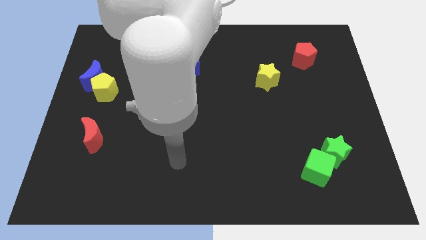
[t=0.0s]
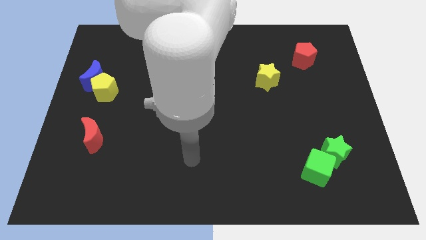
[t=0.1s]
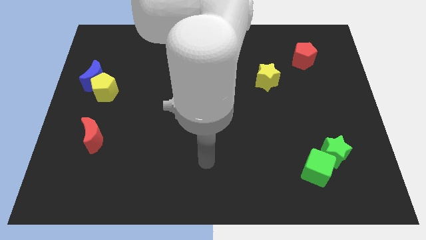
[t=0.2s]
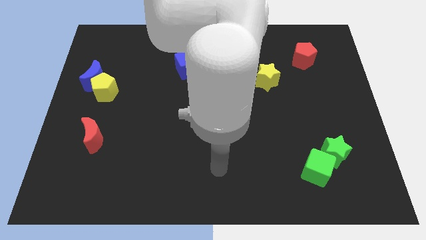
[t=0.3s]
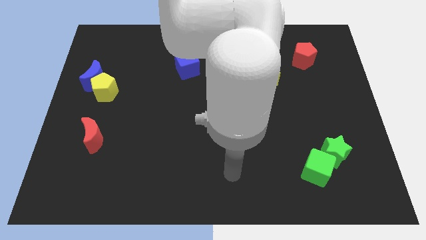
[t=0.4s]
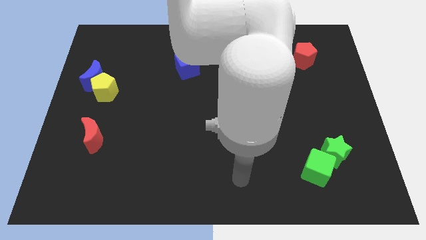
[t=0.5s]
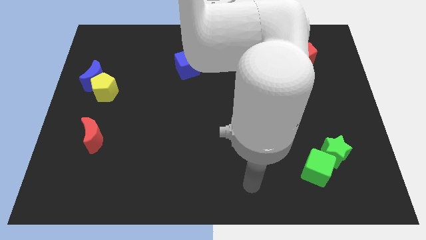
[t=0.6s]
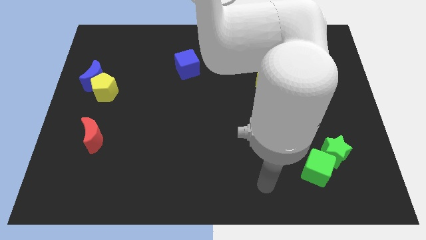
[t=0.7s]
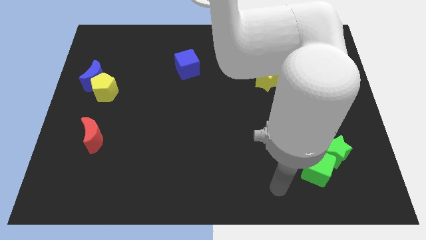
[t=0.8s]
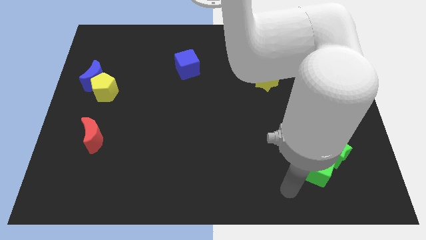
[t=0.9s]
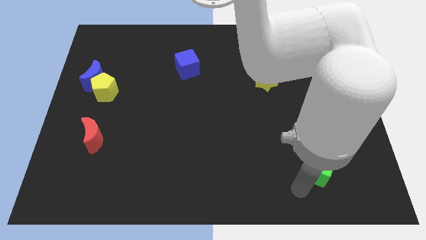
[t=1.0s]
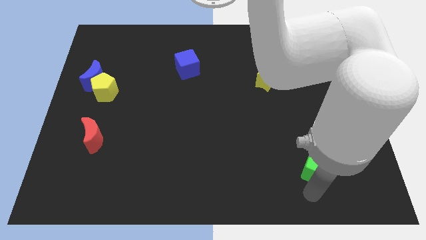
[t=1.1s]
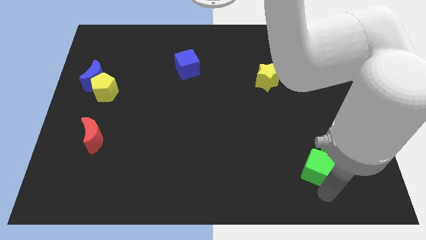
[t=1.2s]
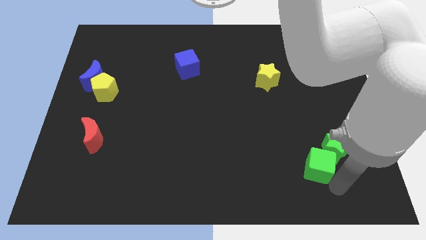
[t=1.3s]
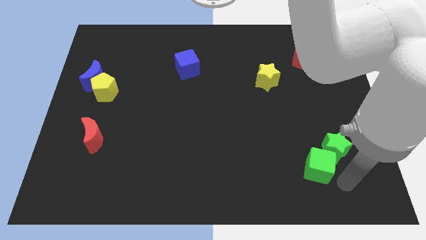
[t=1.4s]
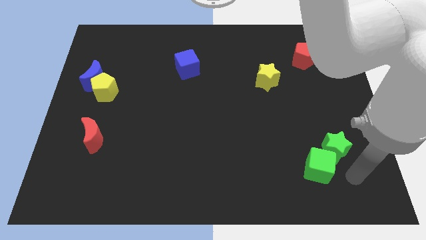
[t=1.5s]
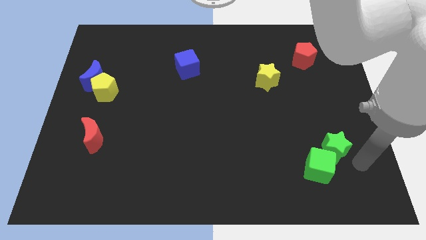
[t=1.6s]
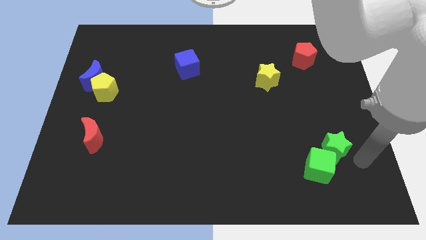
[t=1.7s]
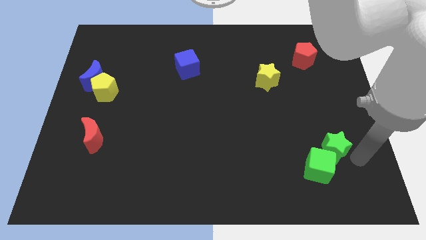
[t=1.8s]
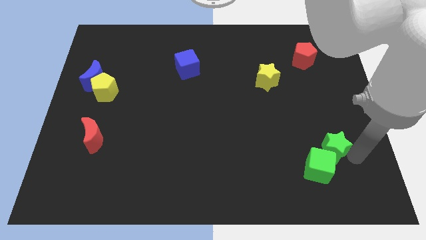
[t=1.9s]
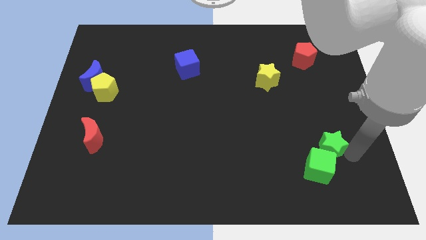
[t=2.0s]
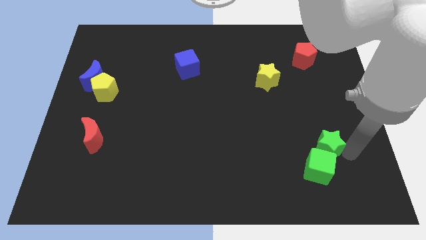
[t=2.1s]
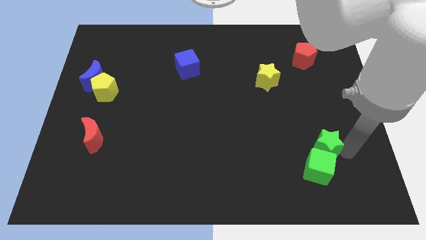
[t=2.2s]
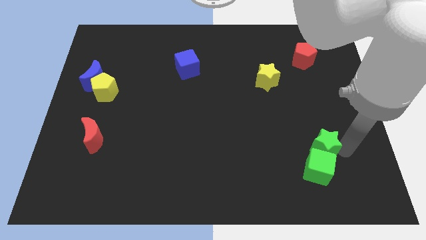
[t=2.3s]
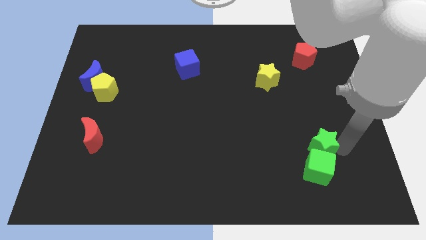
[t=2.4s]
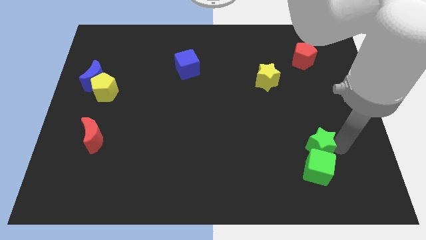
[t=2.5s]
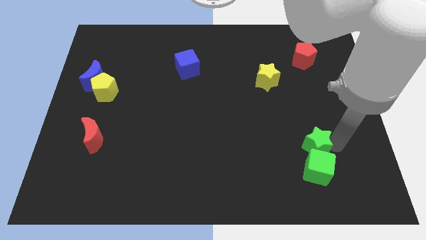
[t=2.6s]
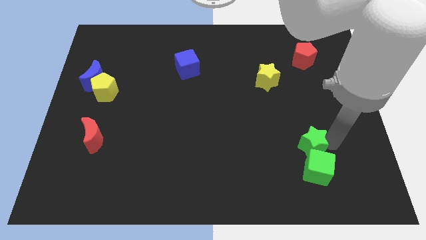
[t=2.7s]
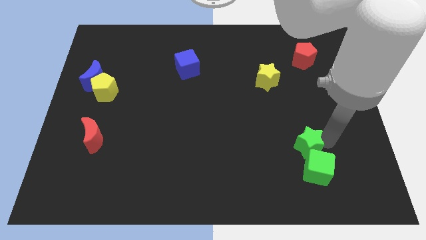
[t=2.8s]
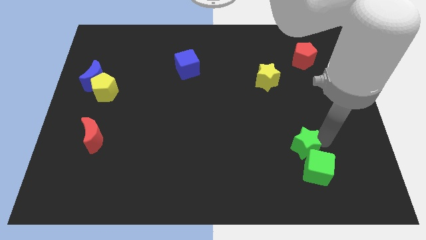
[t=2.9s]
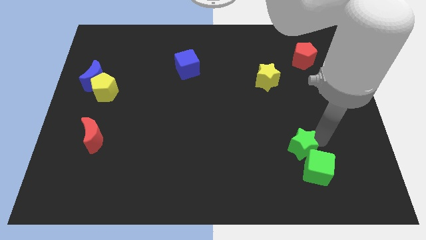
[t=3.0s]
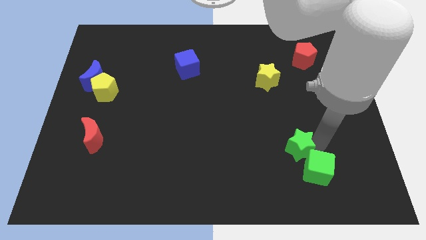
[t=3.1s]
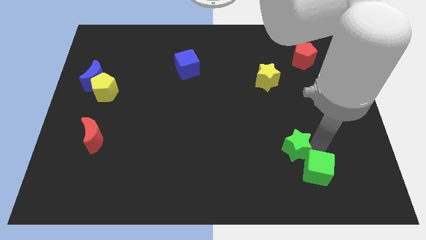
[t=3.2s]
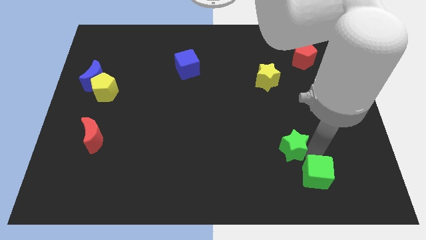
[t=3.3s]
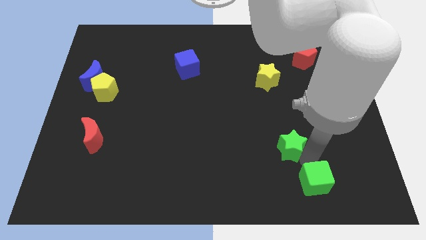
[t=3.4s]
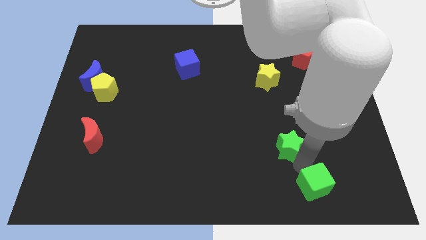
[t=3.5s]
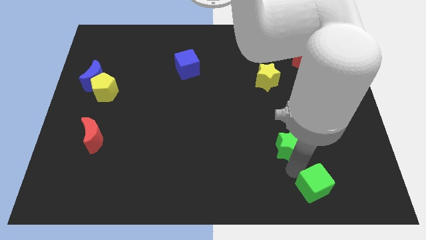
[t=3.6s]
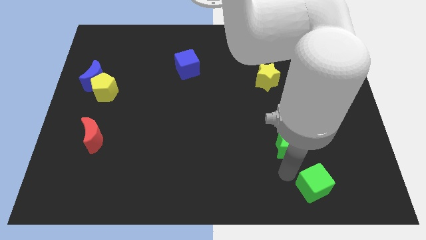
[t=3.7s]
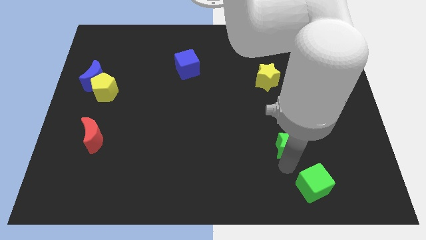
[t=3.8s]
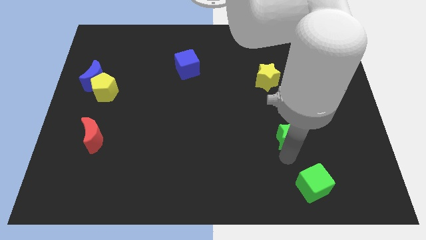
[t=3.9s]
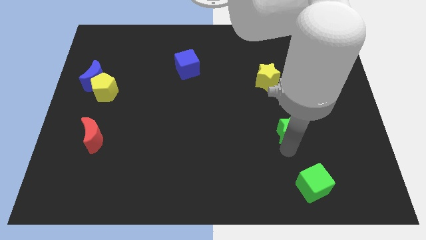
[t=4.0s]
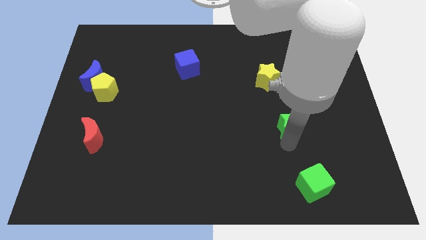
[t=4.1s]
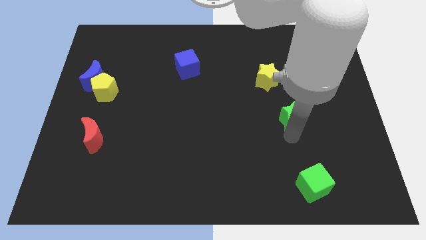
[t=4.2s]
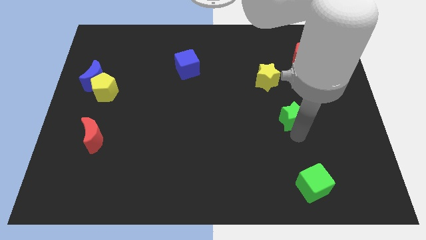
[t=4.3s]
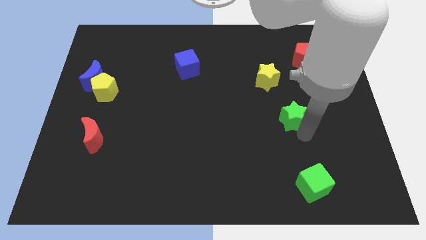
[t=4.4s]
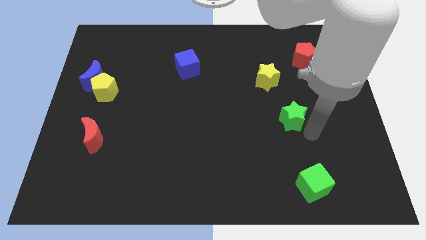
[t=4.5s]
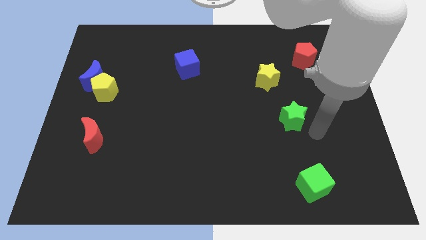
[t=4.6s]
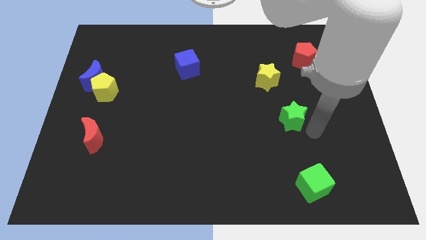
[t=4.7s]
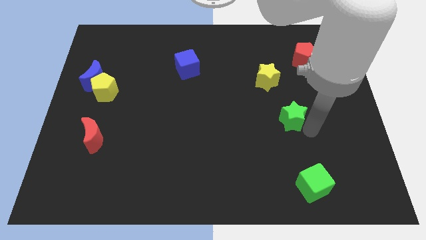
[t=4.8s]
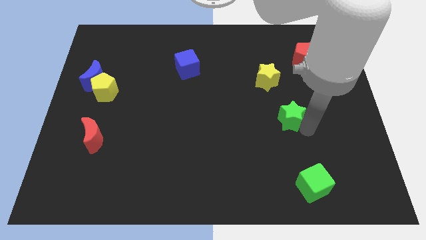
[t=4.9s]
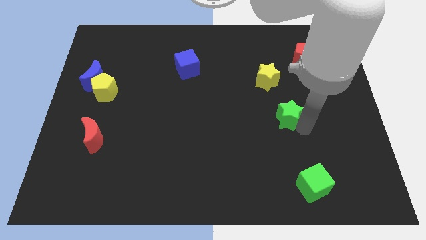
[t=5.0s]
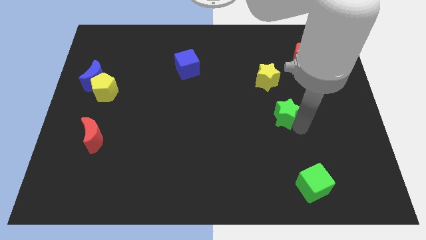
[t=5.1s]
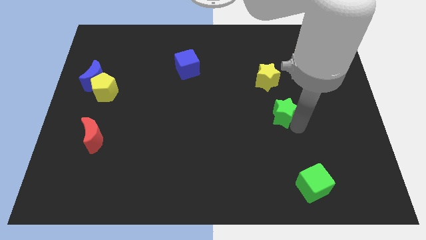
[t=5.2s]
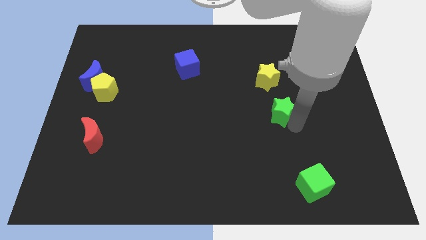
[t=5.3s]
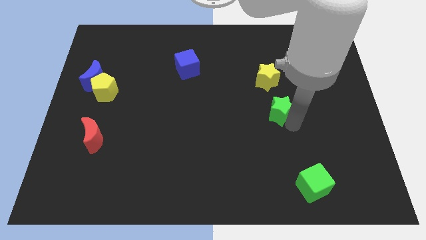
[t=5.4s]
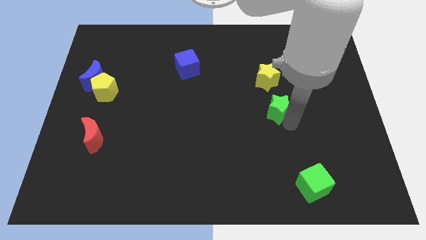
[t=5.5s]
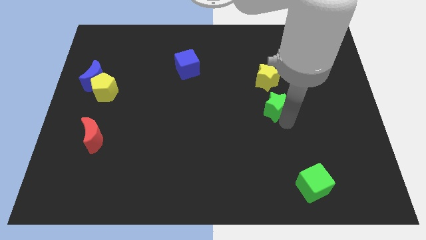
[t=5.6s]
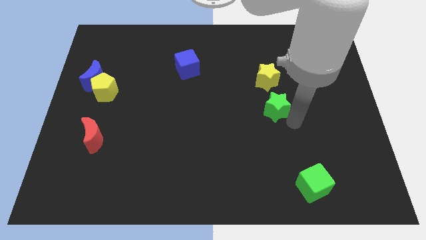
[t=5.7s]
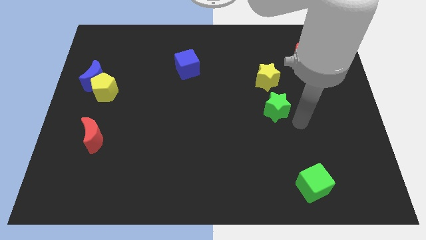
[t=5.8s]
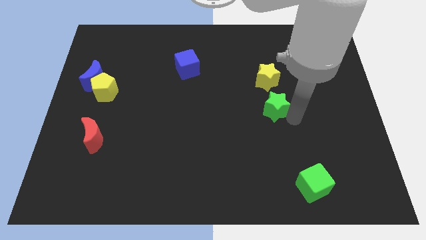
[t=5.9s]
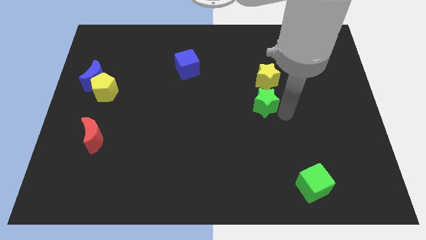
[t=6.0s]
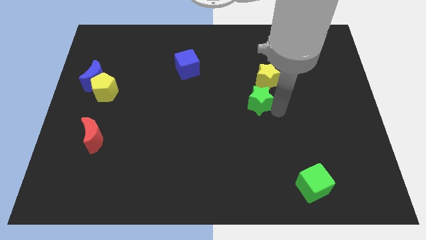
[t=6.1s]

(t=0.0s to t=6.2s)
push the green star up and left diagonally

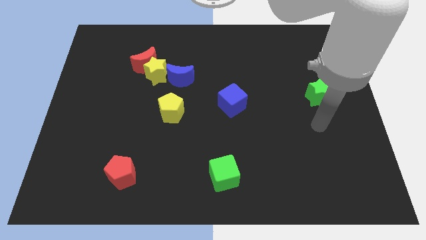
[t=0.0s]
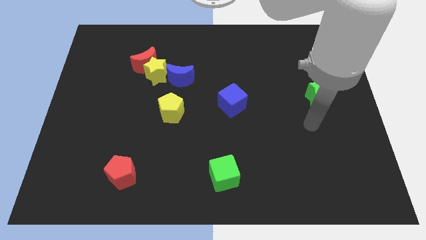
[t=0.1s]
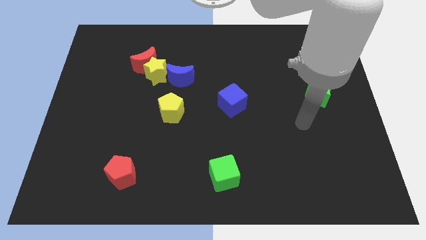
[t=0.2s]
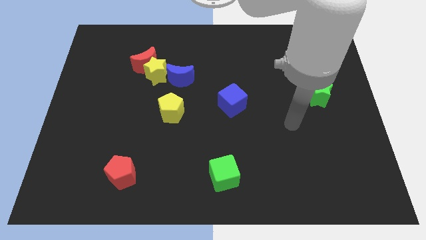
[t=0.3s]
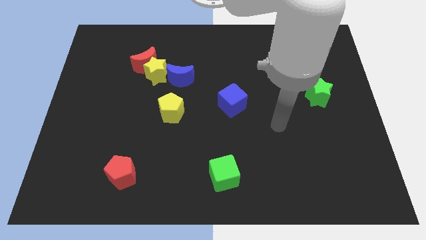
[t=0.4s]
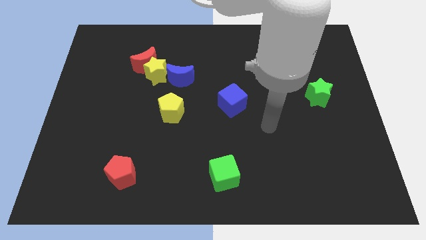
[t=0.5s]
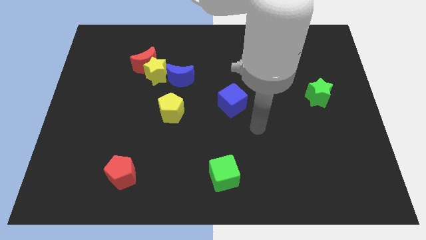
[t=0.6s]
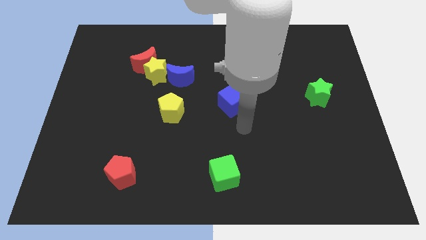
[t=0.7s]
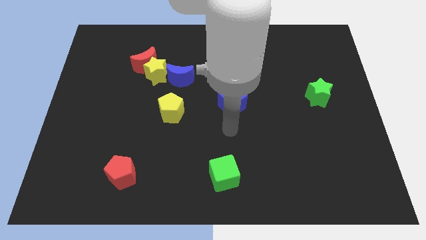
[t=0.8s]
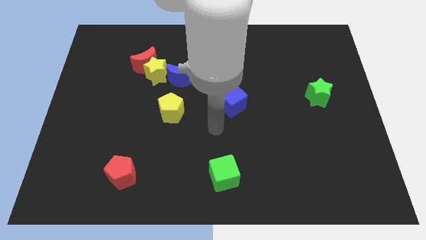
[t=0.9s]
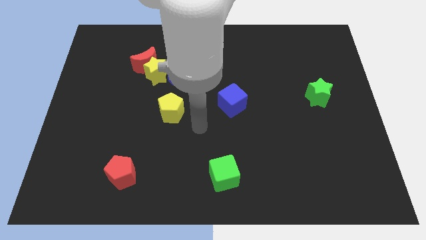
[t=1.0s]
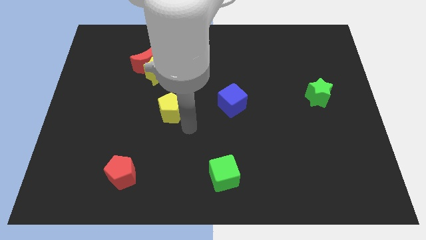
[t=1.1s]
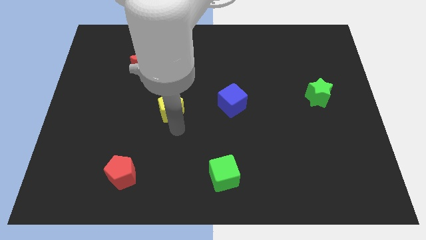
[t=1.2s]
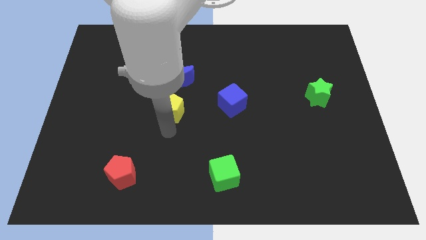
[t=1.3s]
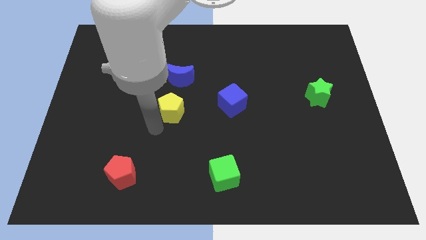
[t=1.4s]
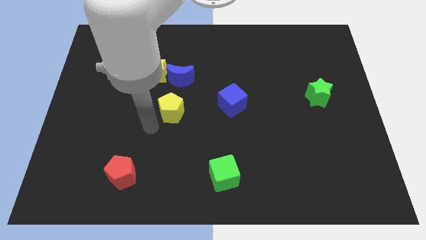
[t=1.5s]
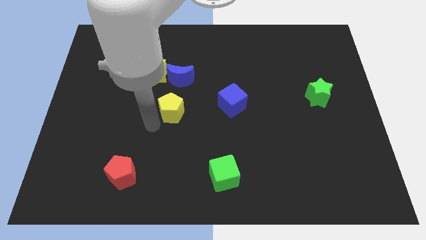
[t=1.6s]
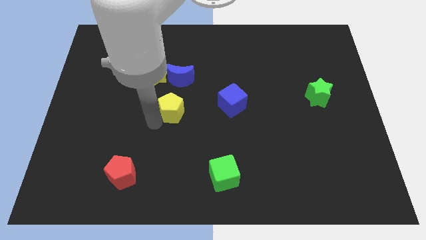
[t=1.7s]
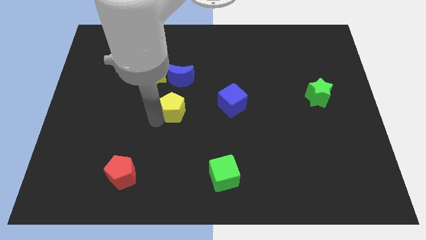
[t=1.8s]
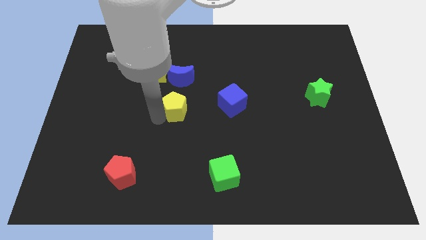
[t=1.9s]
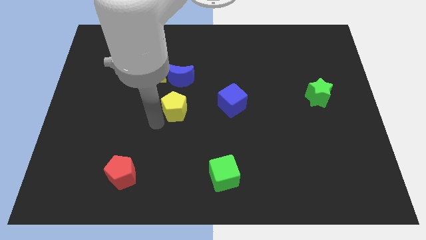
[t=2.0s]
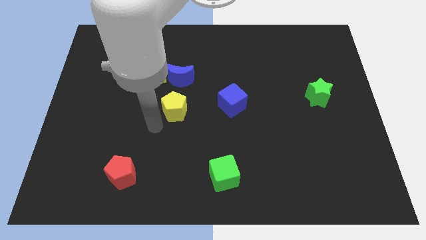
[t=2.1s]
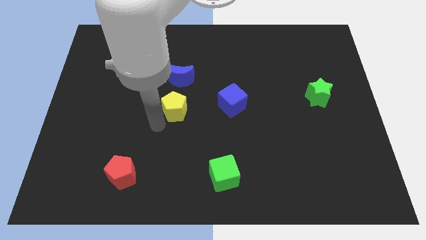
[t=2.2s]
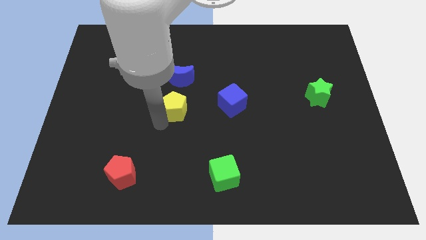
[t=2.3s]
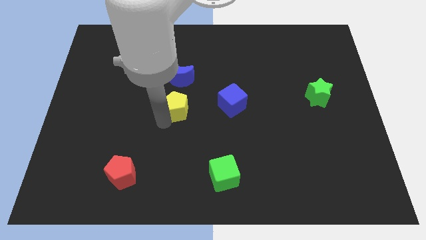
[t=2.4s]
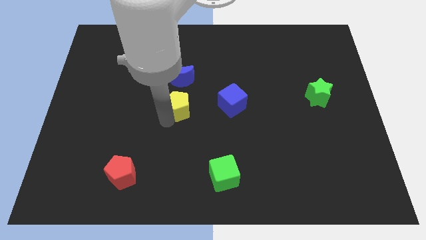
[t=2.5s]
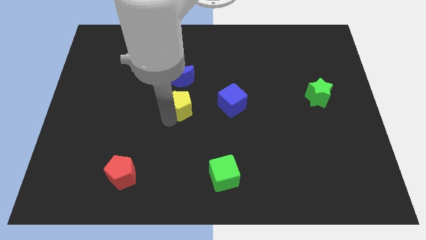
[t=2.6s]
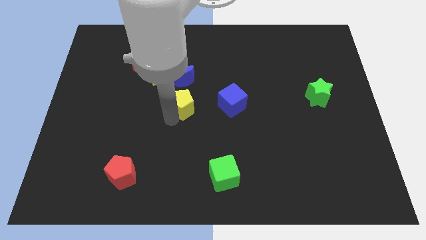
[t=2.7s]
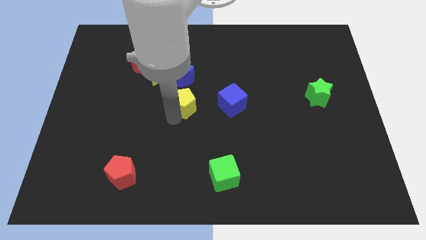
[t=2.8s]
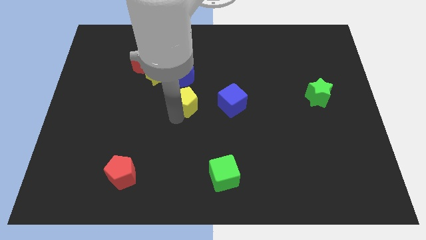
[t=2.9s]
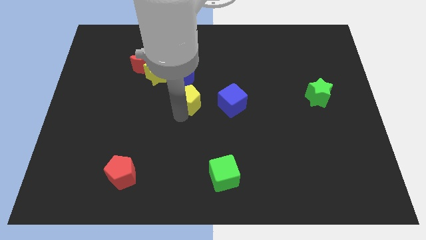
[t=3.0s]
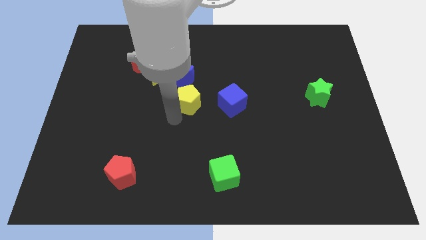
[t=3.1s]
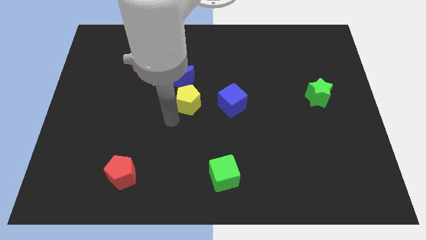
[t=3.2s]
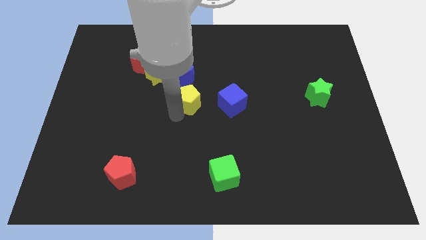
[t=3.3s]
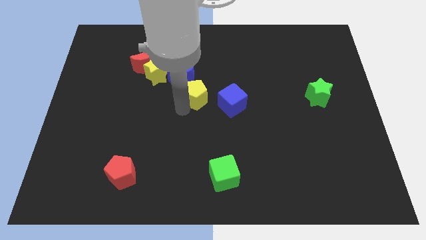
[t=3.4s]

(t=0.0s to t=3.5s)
slightly move the yellow pentagon up and right diagonally
